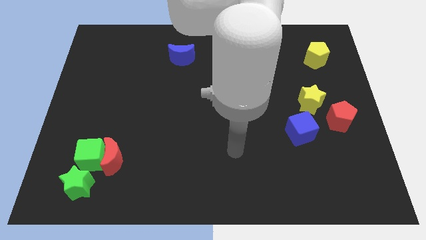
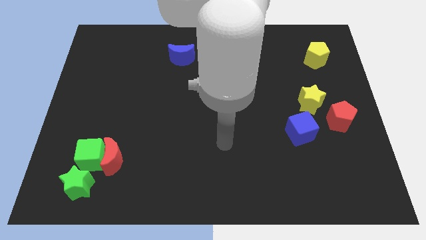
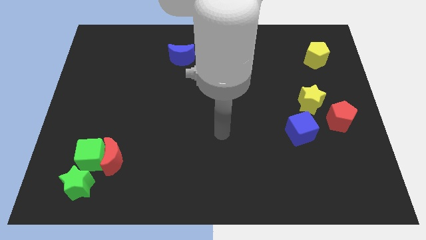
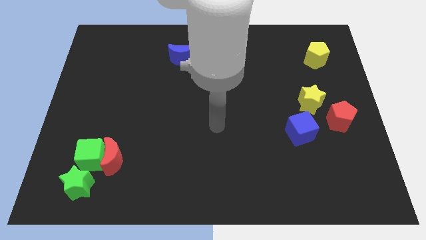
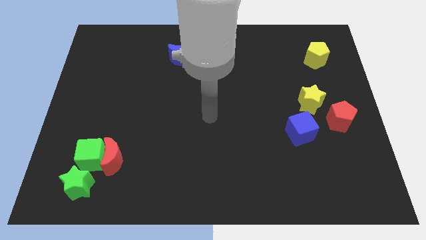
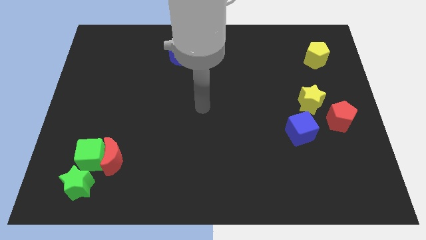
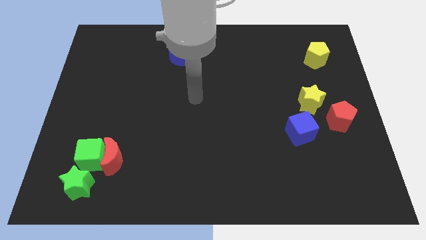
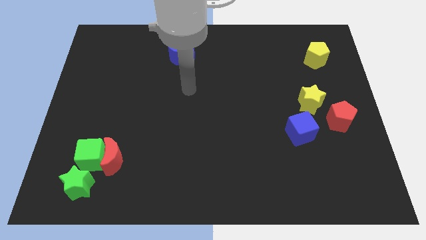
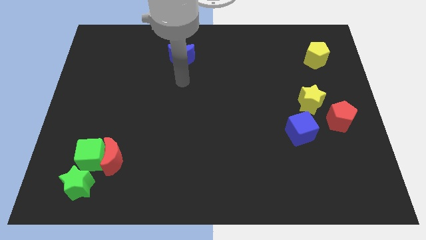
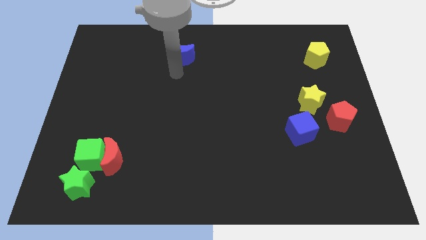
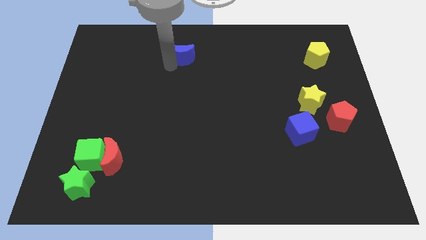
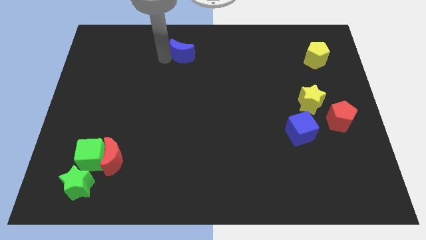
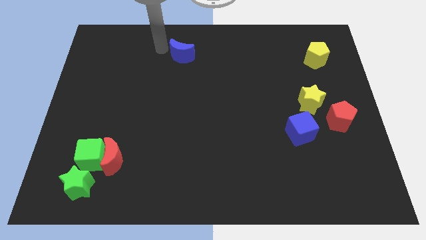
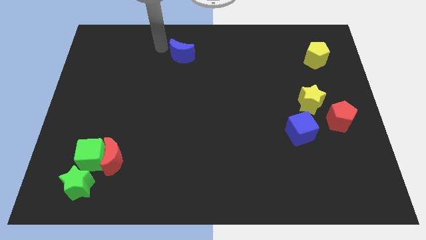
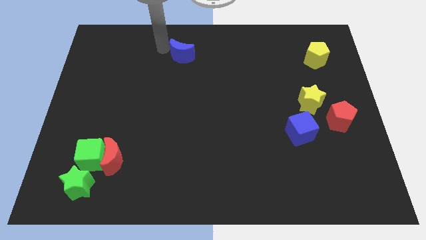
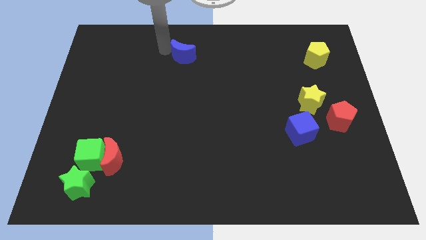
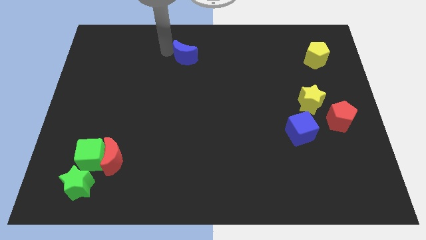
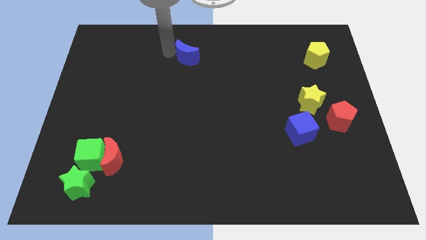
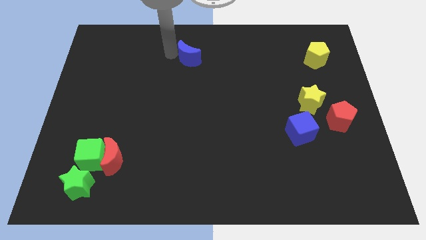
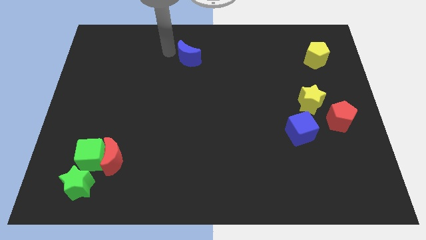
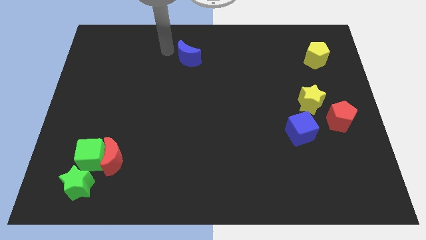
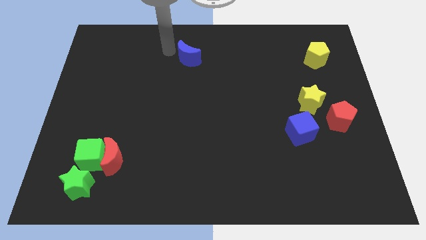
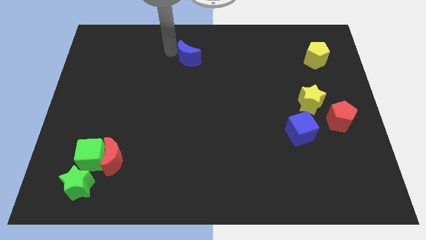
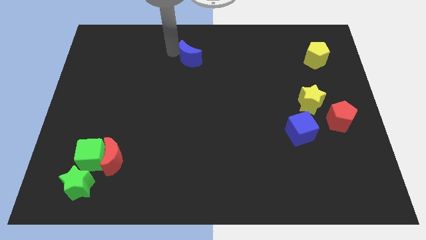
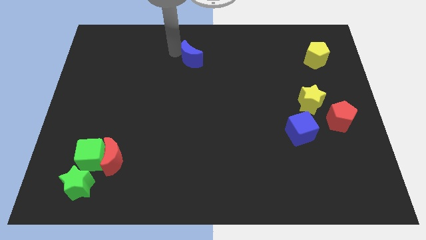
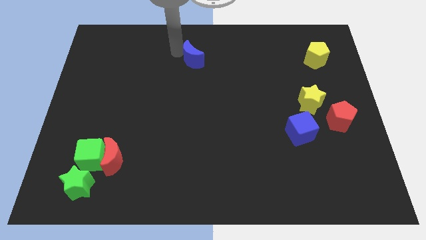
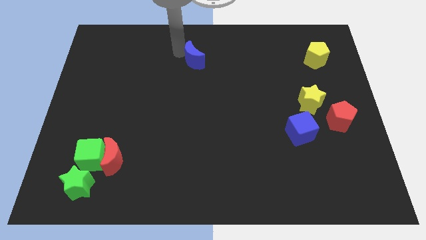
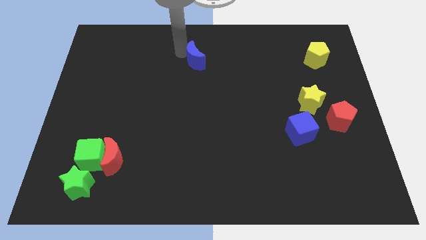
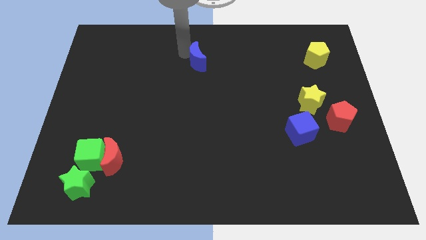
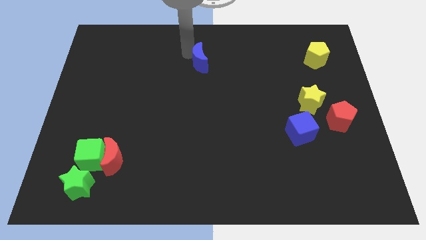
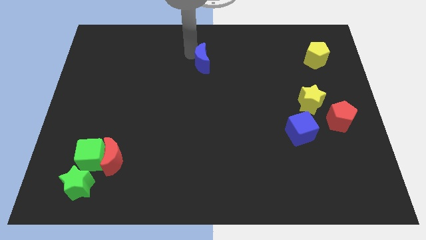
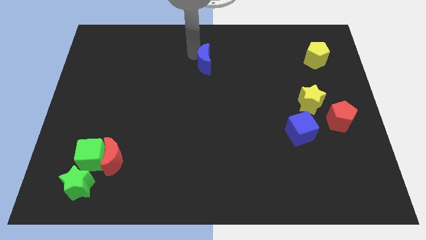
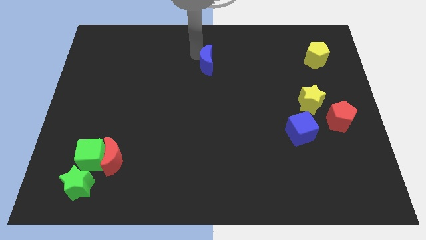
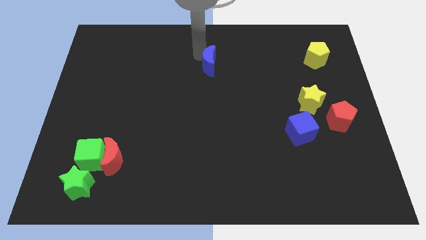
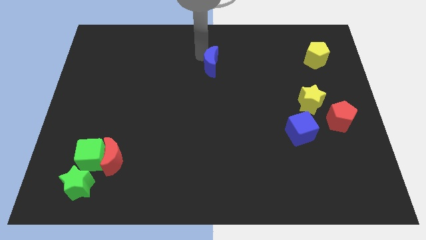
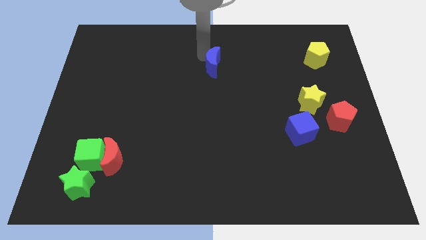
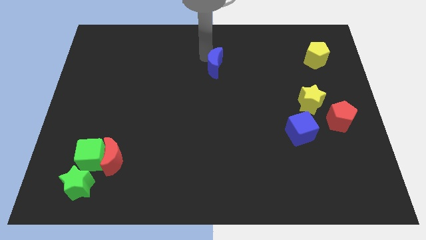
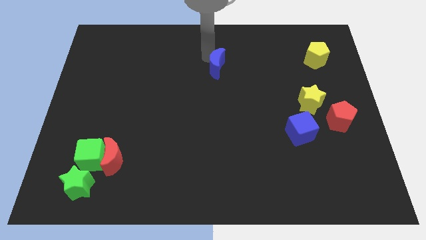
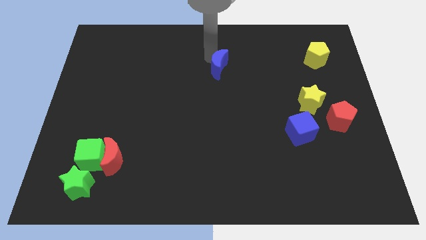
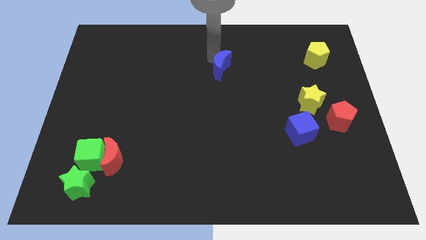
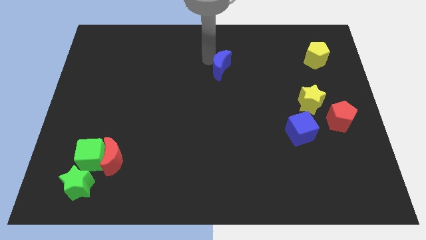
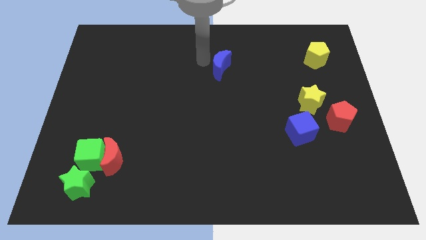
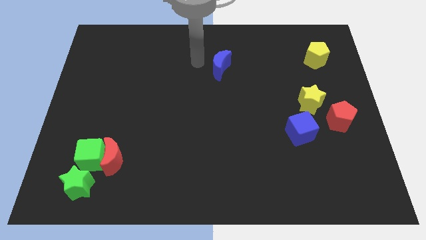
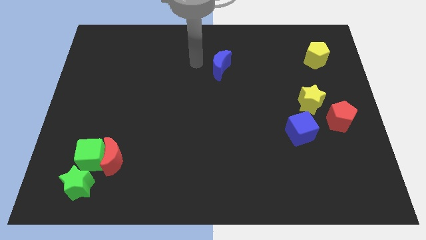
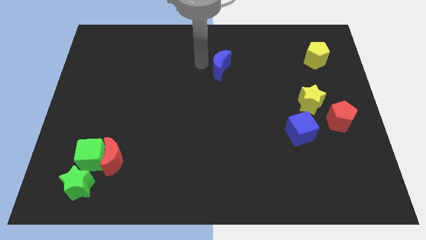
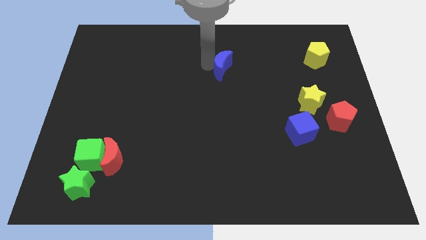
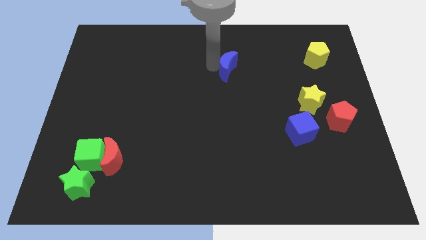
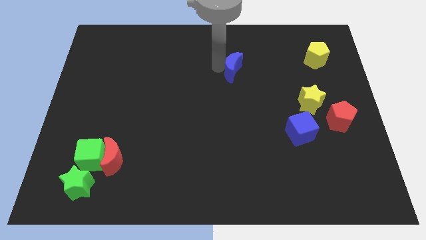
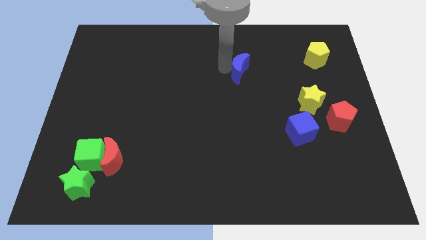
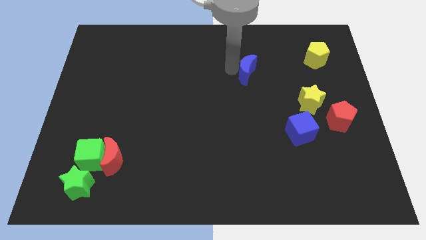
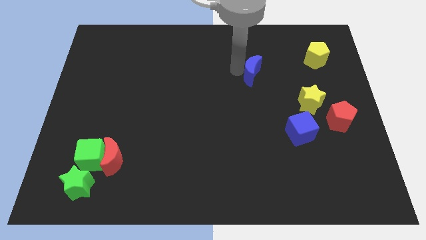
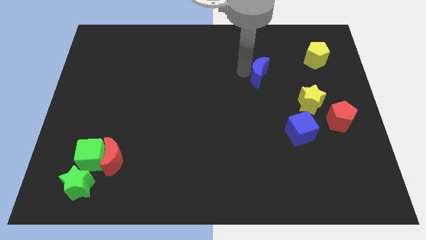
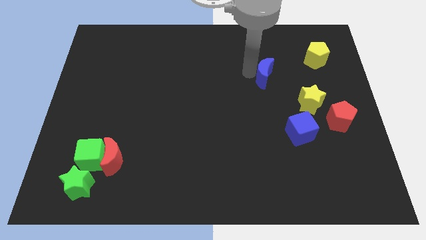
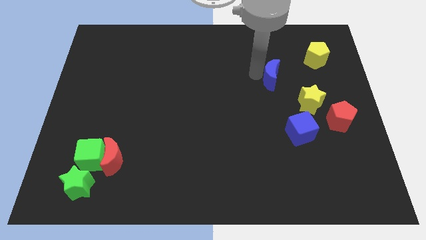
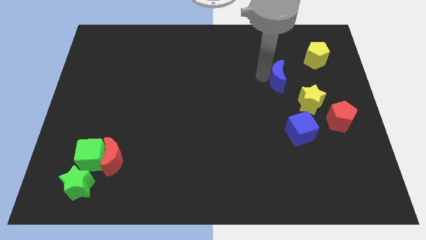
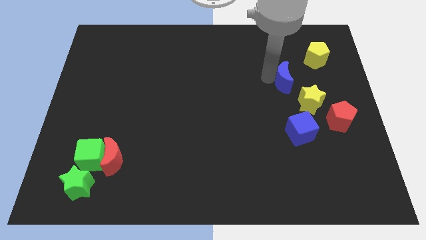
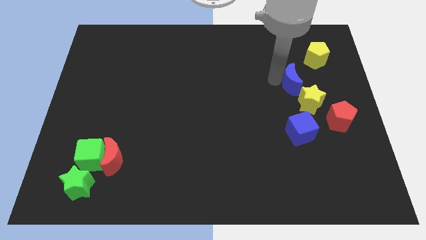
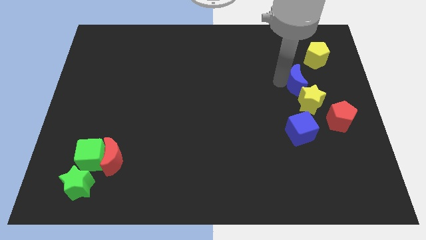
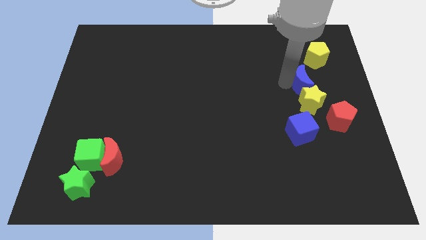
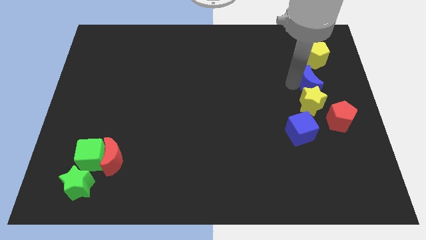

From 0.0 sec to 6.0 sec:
slide the blue moon diagonally up and to the right of the yellow star

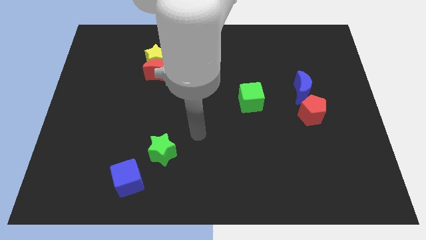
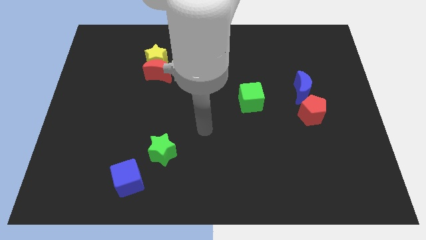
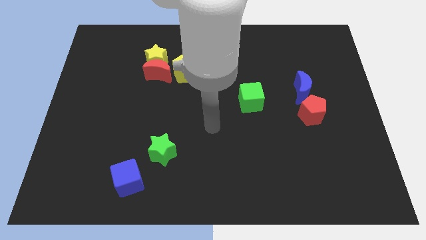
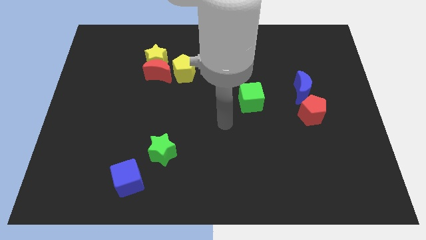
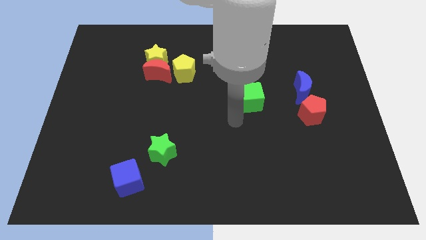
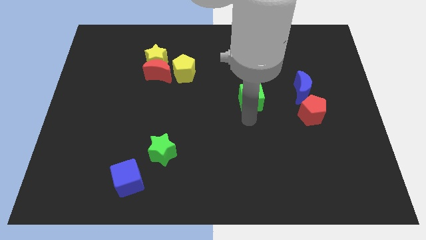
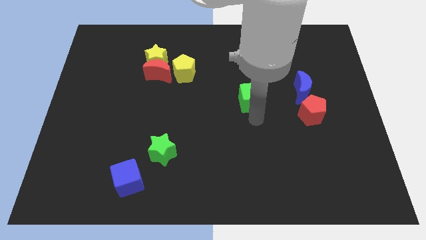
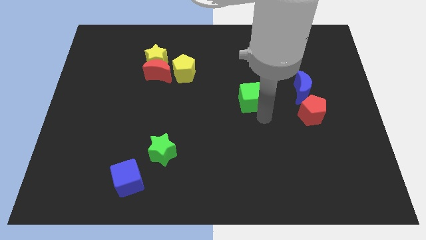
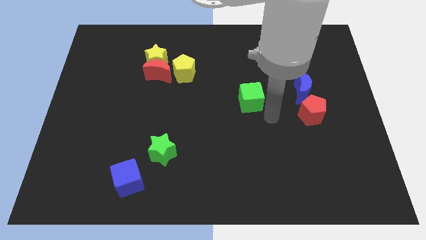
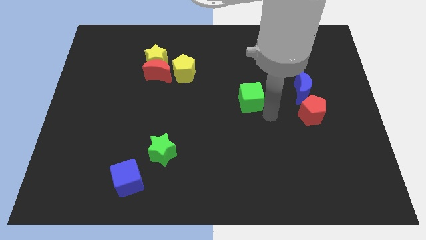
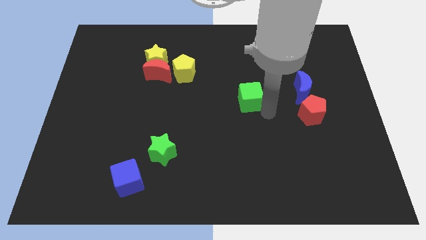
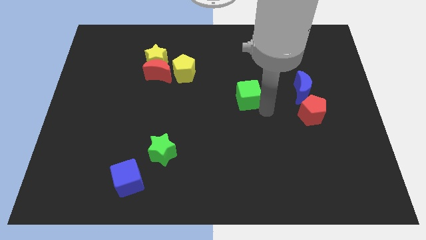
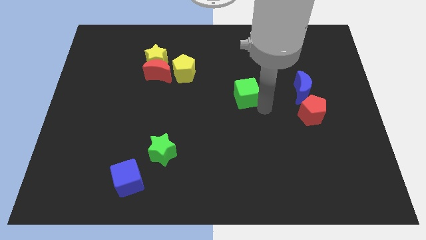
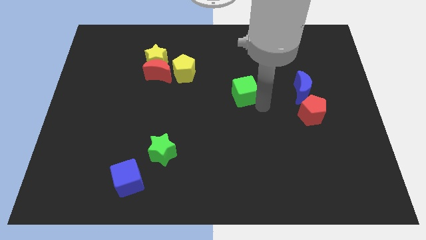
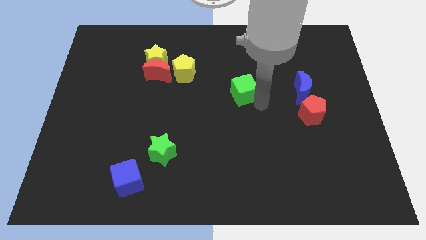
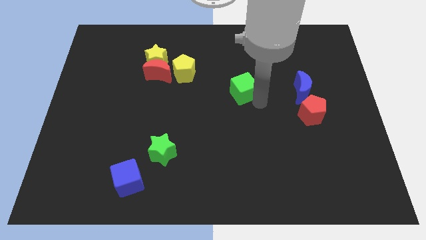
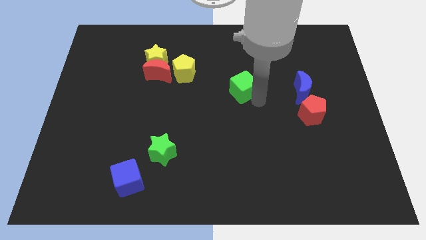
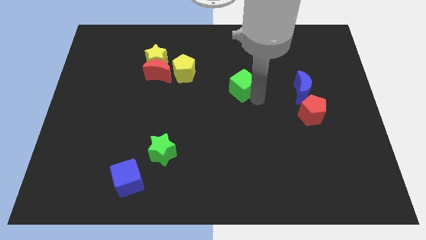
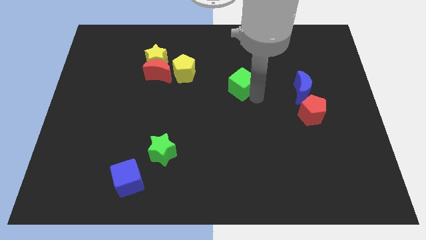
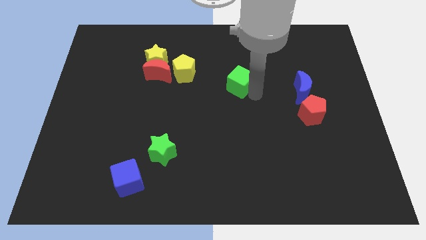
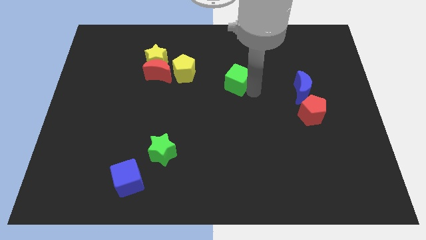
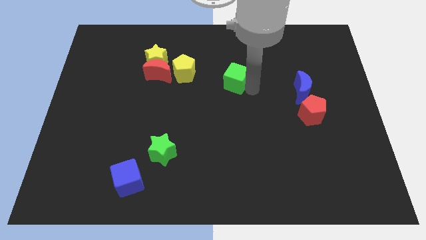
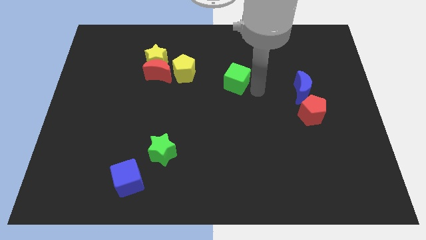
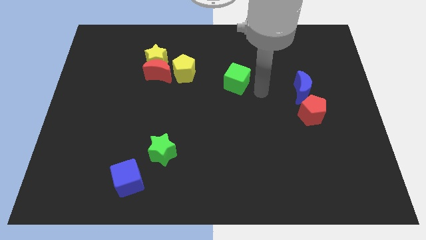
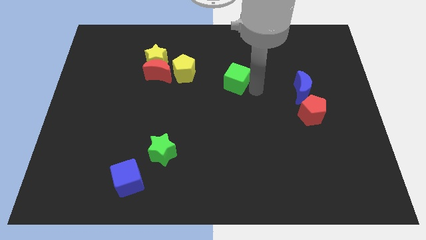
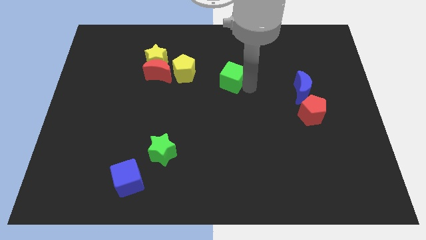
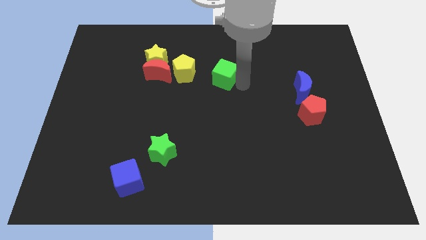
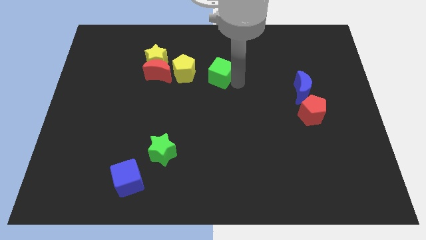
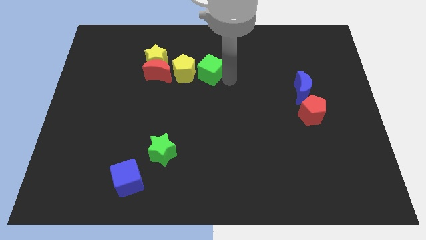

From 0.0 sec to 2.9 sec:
put the green cube to the right side of the yellow star
